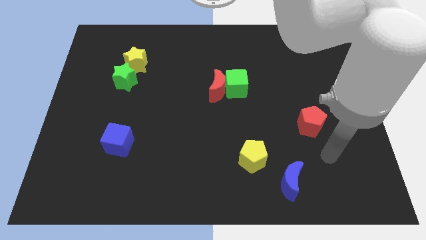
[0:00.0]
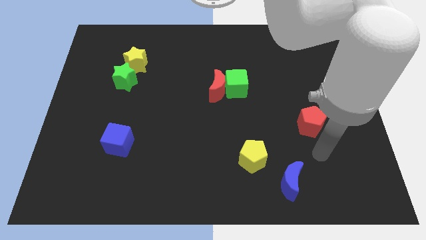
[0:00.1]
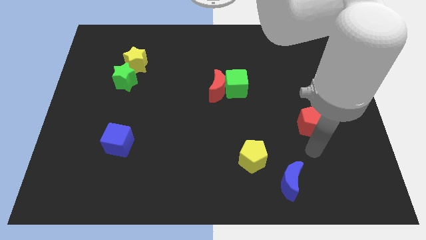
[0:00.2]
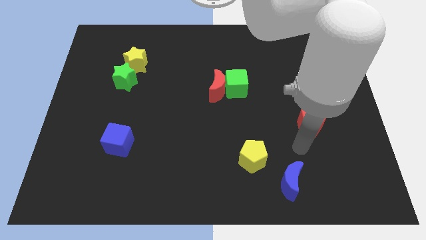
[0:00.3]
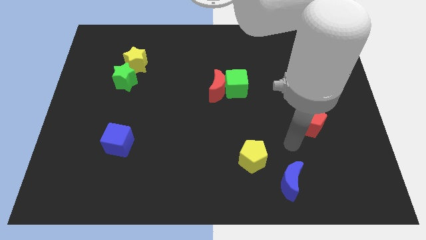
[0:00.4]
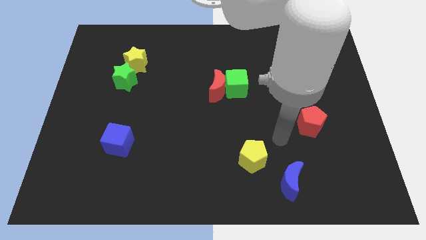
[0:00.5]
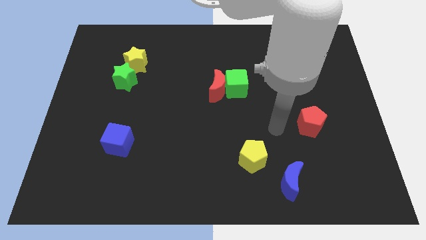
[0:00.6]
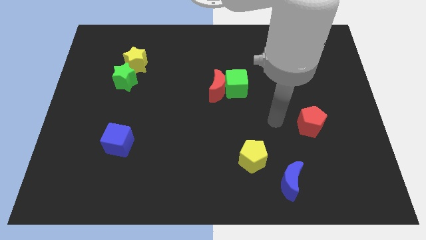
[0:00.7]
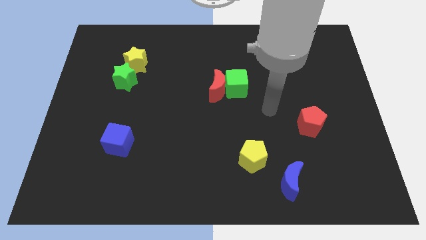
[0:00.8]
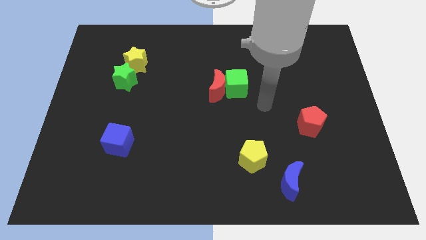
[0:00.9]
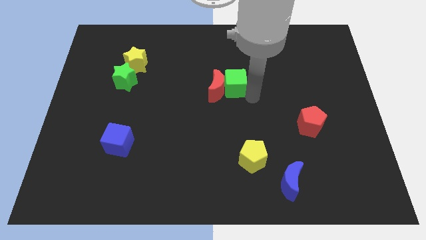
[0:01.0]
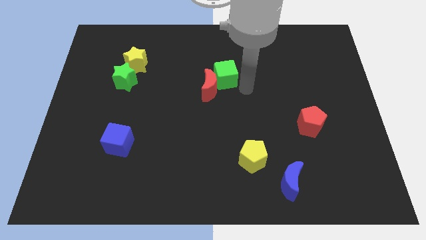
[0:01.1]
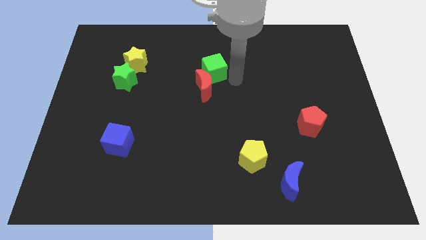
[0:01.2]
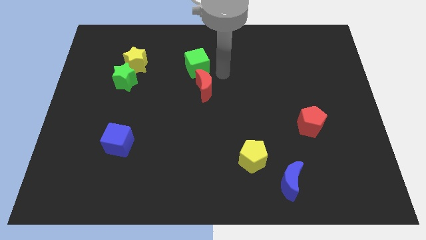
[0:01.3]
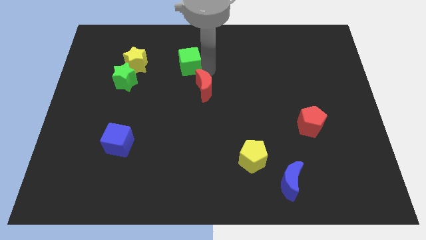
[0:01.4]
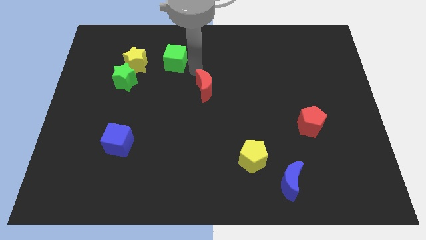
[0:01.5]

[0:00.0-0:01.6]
pull the red moon apart from the green cube

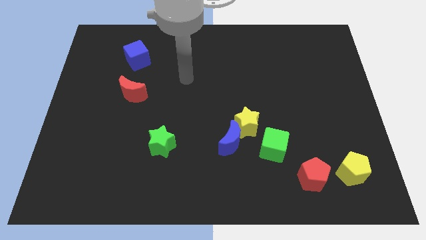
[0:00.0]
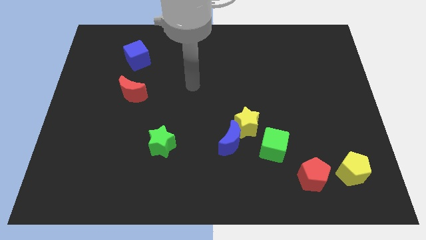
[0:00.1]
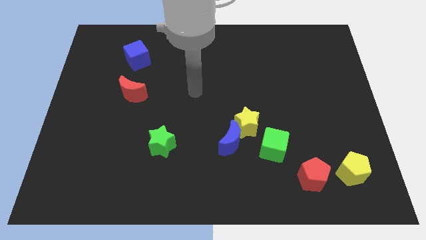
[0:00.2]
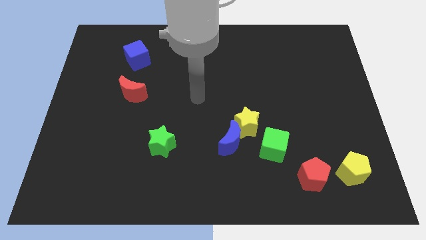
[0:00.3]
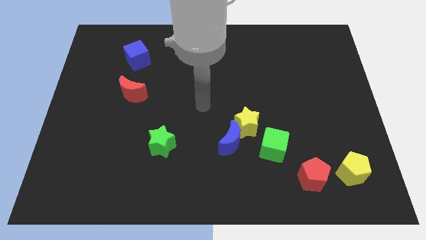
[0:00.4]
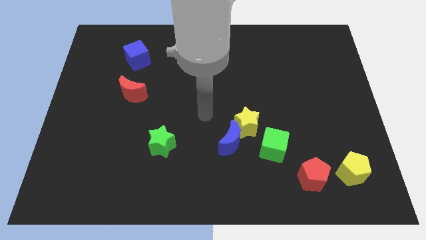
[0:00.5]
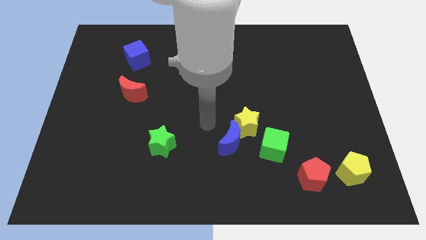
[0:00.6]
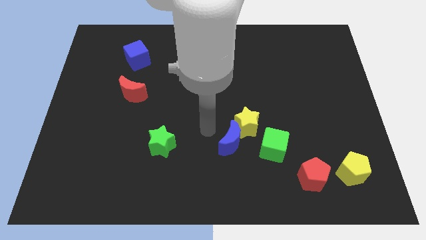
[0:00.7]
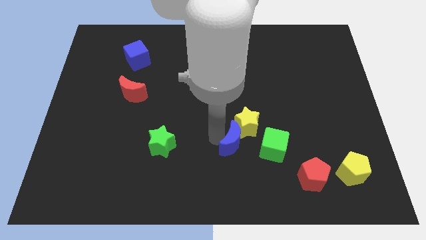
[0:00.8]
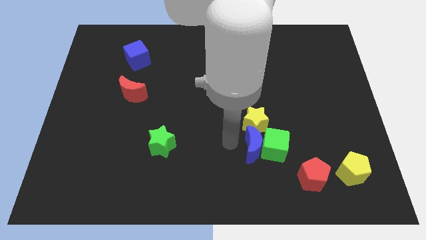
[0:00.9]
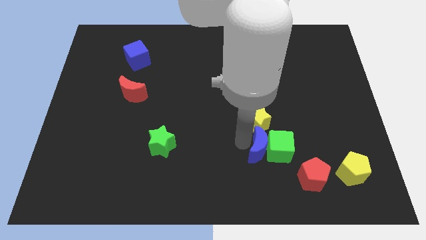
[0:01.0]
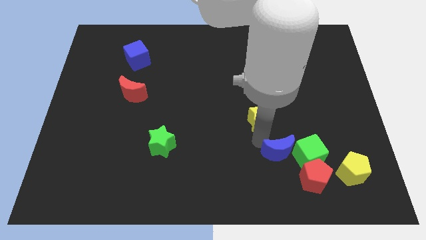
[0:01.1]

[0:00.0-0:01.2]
pull the yellow star apart from the blue moon and green cube

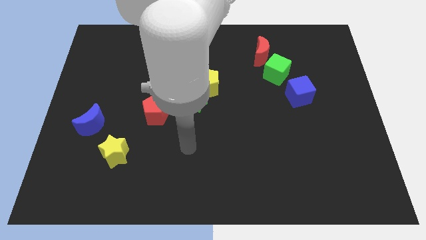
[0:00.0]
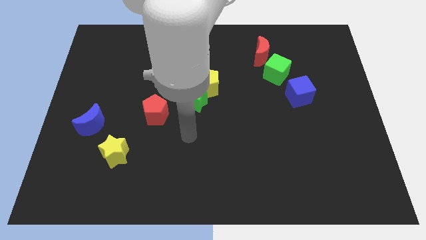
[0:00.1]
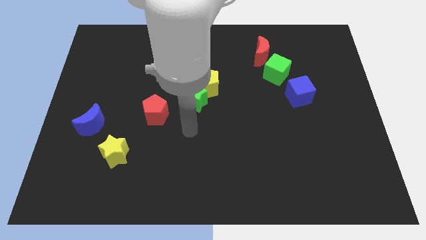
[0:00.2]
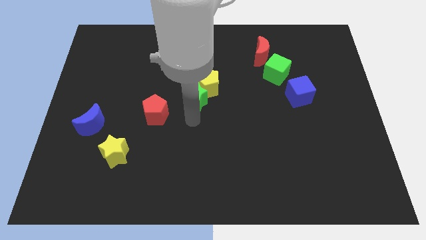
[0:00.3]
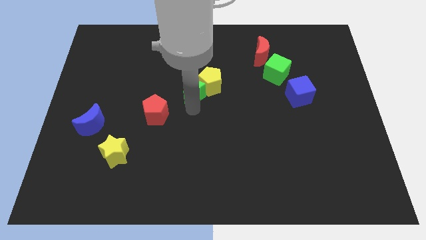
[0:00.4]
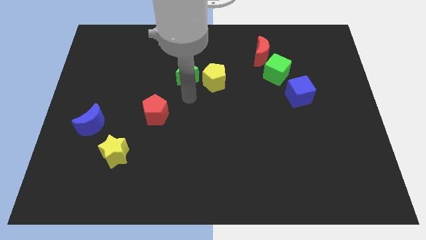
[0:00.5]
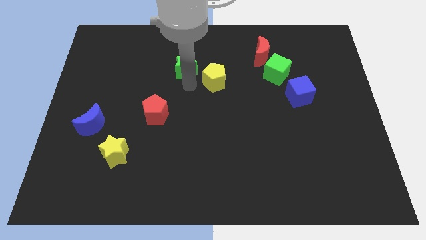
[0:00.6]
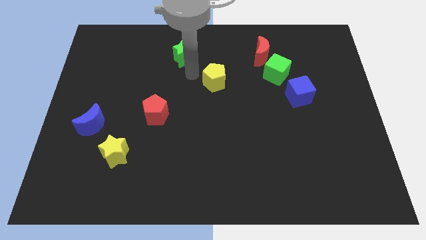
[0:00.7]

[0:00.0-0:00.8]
pull the yellow pentagon apart from the green star

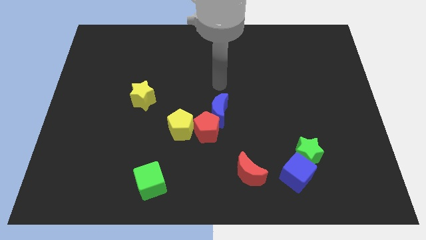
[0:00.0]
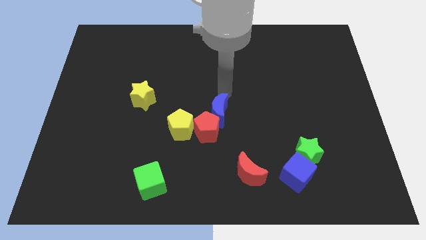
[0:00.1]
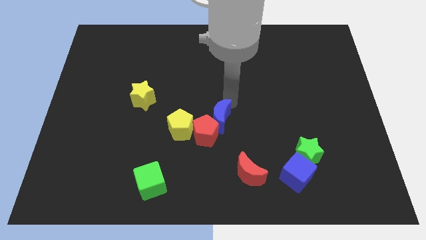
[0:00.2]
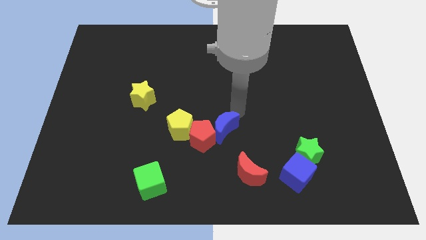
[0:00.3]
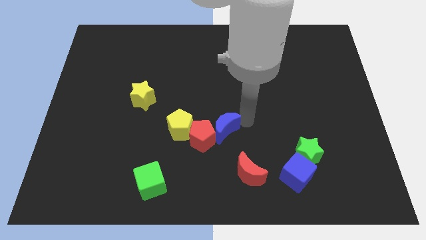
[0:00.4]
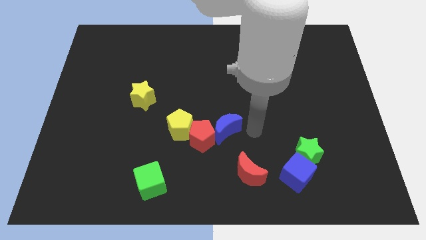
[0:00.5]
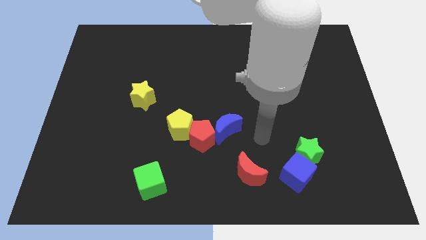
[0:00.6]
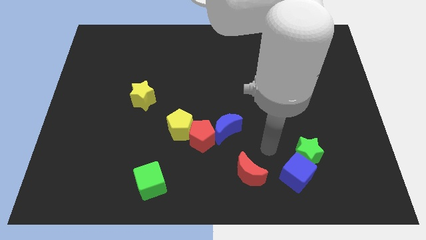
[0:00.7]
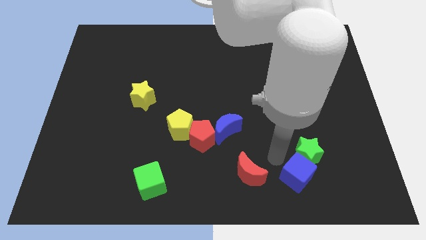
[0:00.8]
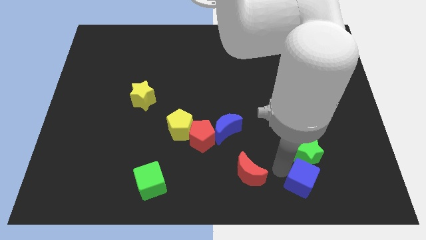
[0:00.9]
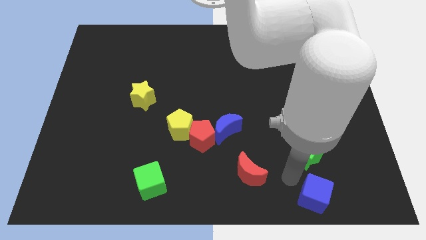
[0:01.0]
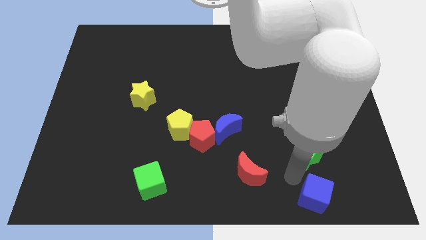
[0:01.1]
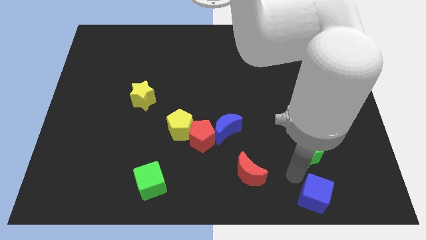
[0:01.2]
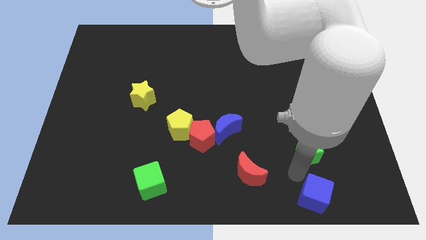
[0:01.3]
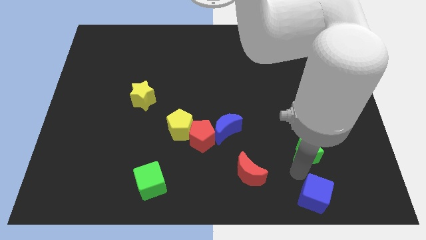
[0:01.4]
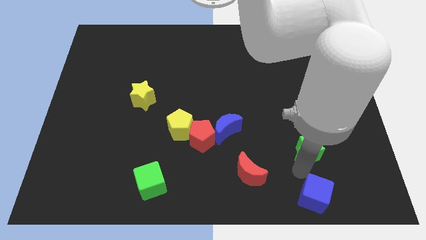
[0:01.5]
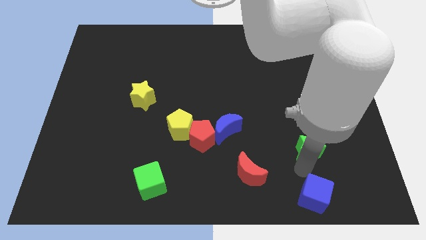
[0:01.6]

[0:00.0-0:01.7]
separate the green star from the blue cube

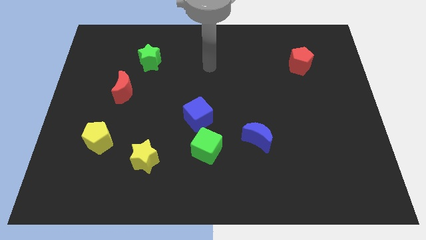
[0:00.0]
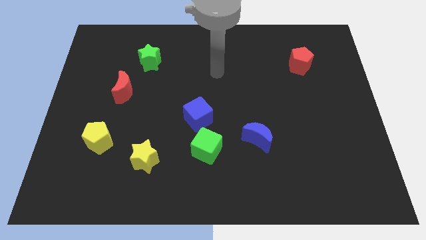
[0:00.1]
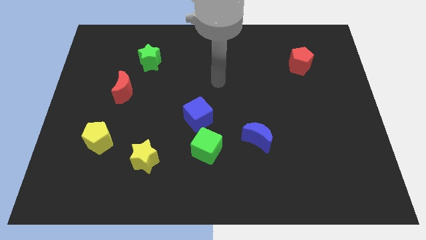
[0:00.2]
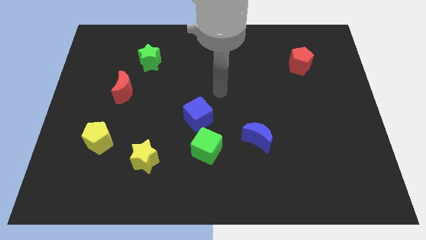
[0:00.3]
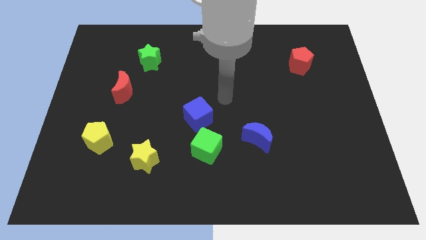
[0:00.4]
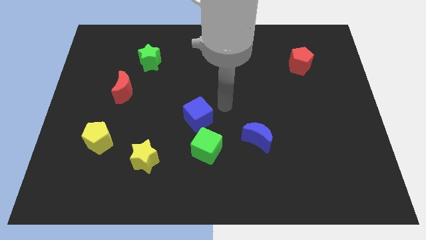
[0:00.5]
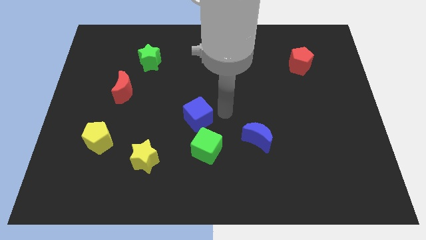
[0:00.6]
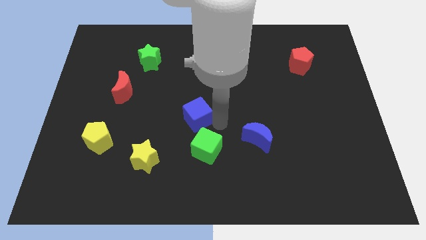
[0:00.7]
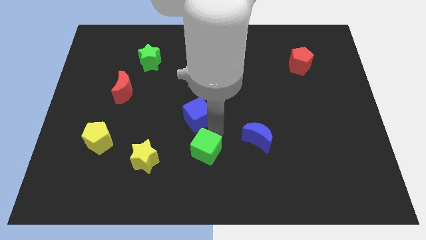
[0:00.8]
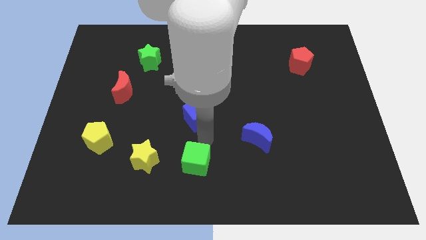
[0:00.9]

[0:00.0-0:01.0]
pull the blue cube apart from the green cube

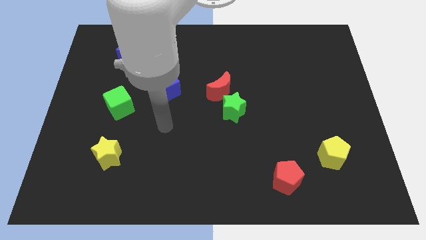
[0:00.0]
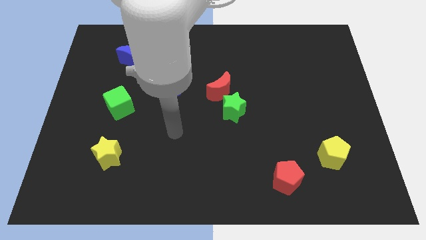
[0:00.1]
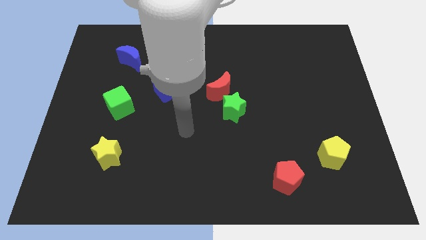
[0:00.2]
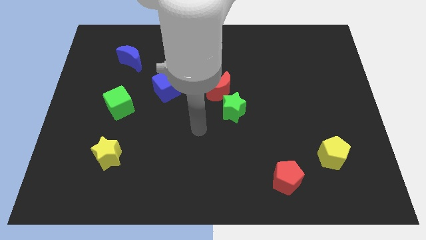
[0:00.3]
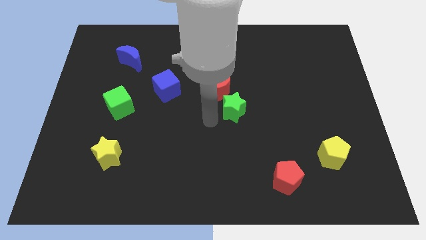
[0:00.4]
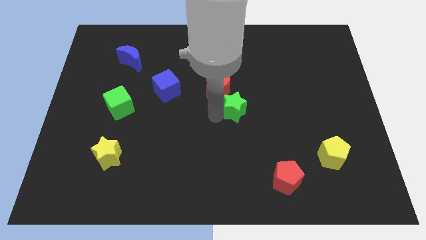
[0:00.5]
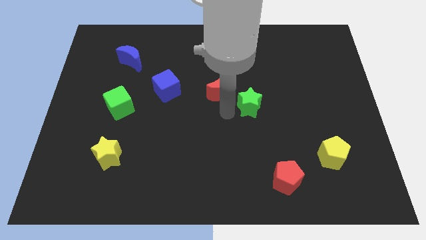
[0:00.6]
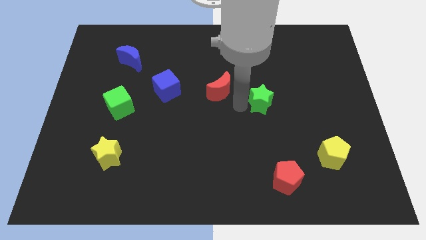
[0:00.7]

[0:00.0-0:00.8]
move the red moon away from the green star

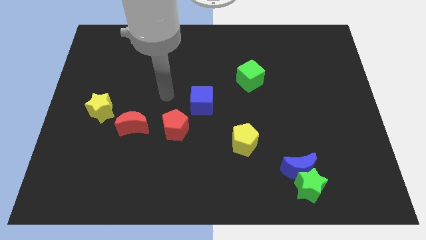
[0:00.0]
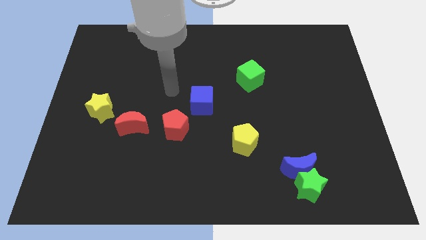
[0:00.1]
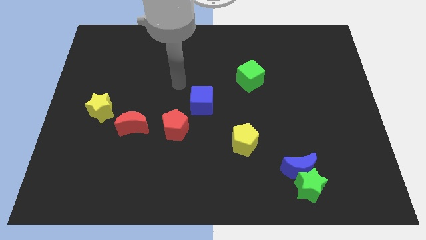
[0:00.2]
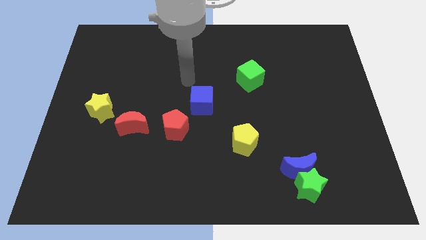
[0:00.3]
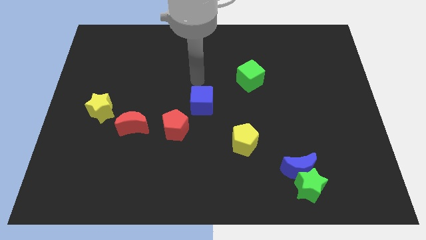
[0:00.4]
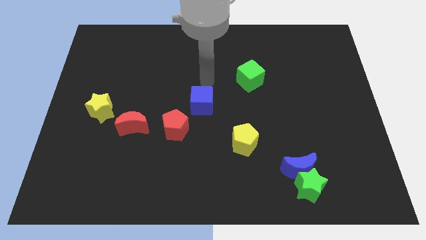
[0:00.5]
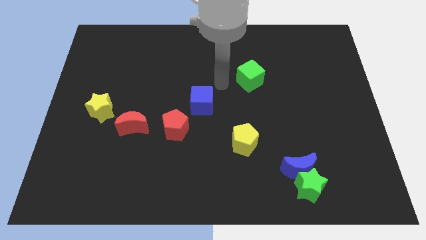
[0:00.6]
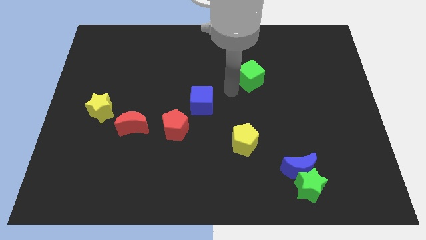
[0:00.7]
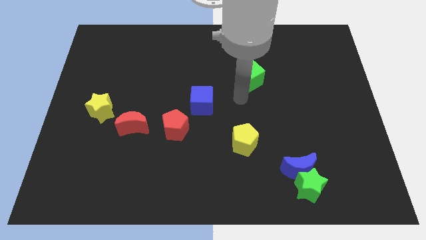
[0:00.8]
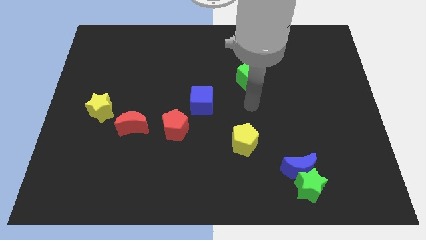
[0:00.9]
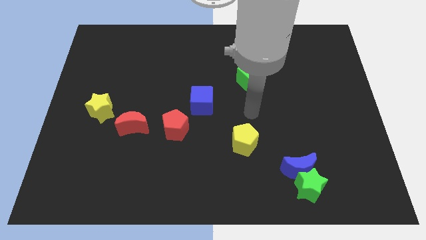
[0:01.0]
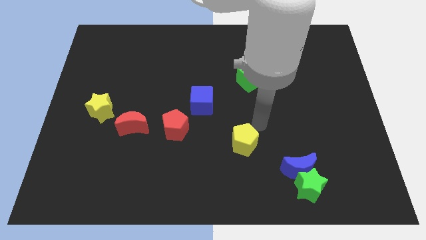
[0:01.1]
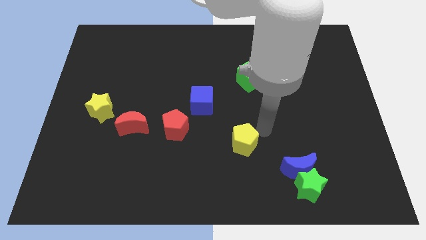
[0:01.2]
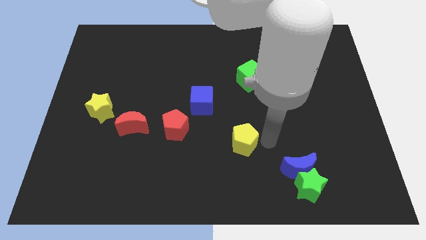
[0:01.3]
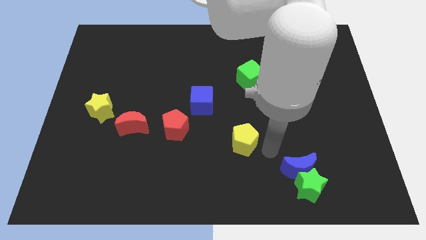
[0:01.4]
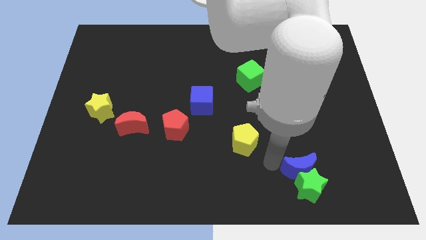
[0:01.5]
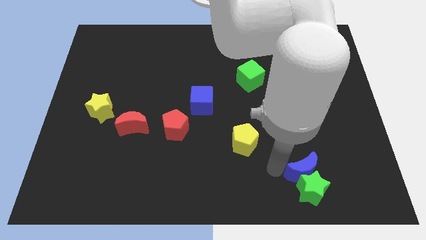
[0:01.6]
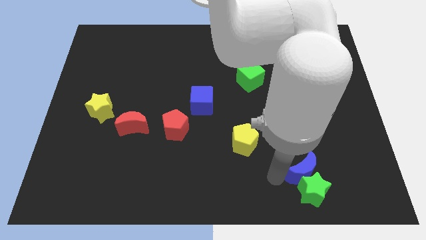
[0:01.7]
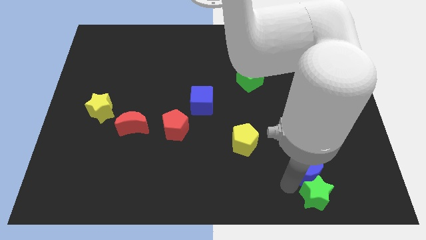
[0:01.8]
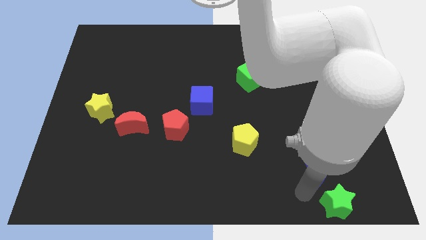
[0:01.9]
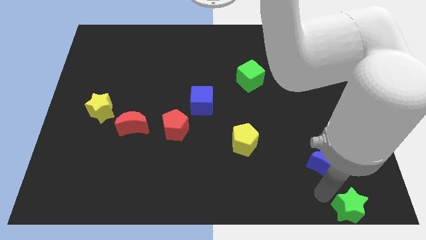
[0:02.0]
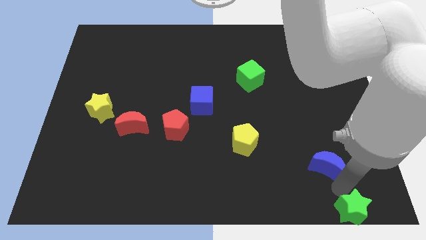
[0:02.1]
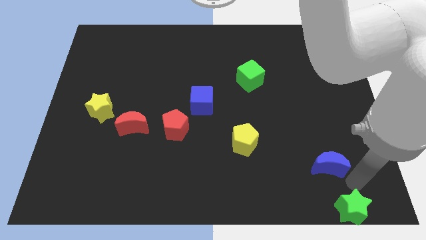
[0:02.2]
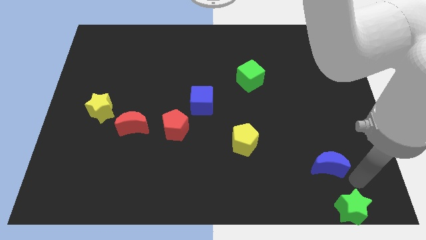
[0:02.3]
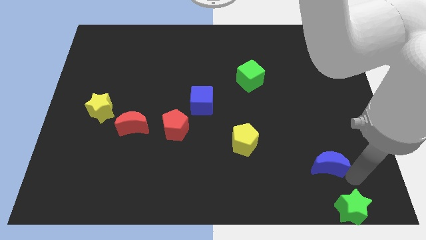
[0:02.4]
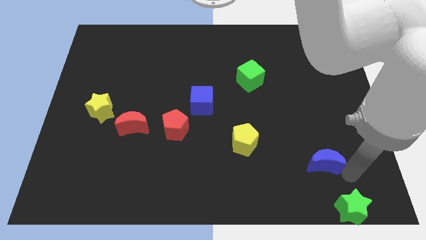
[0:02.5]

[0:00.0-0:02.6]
separate the blue moon from the green star
